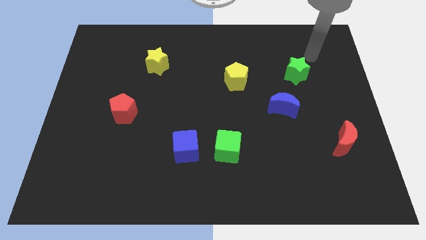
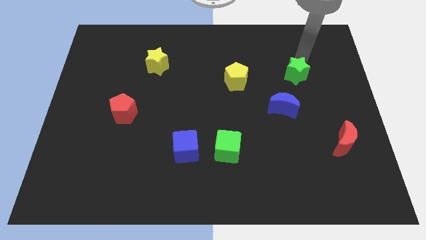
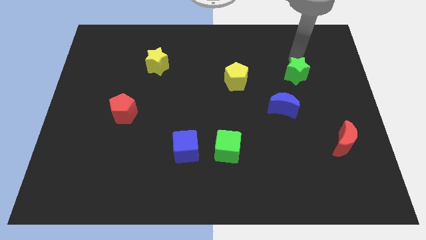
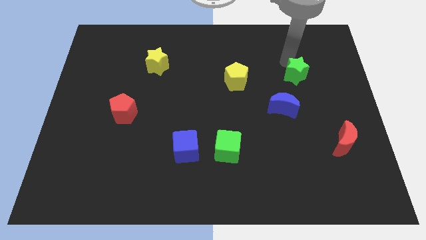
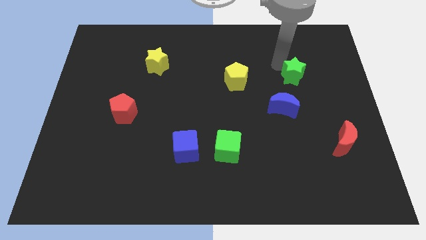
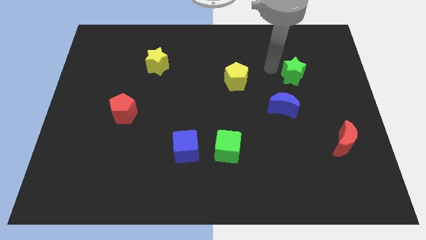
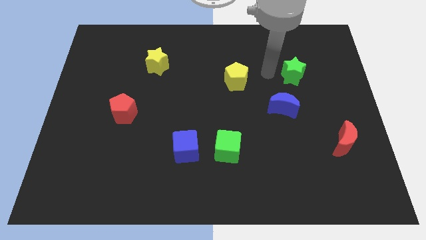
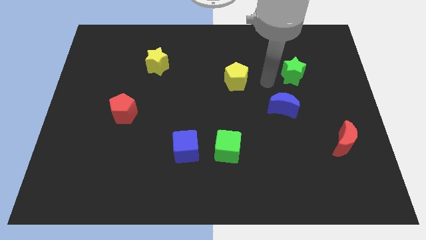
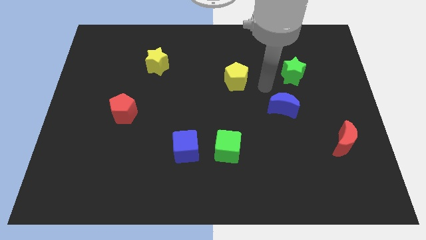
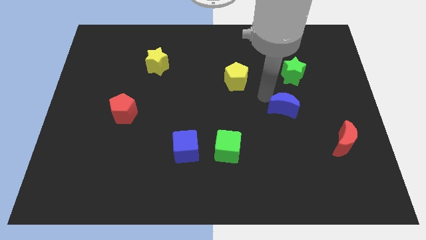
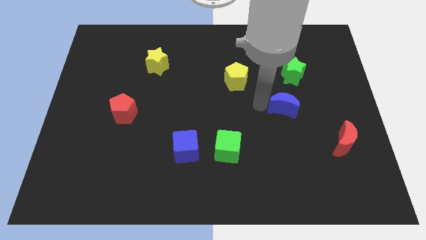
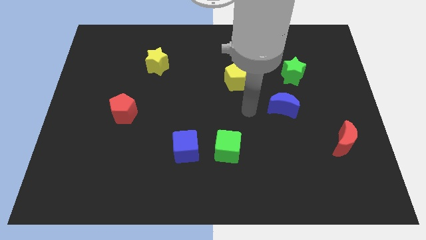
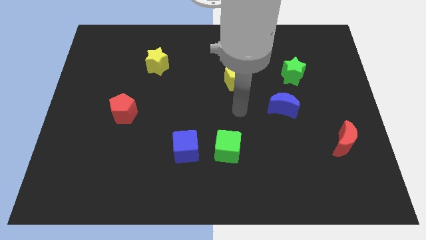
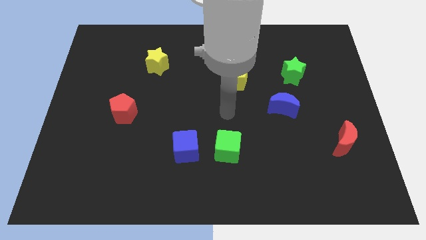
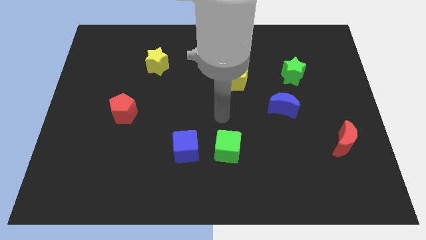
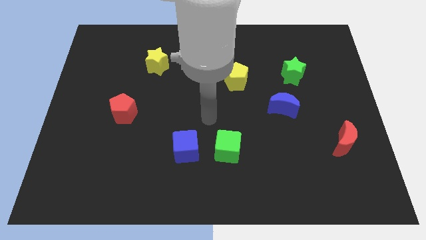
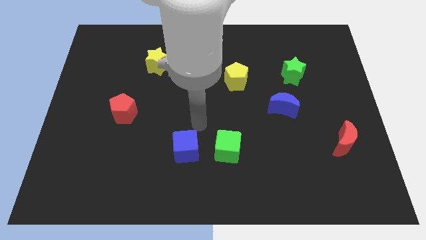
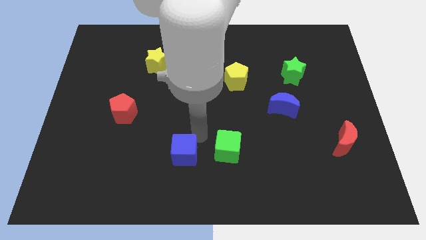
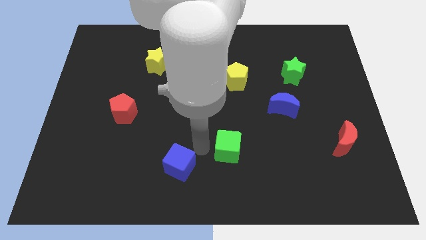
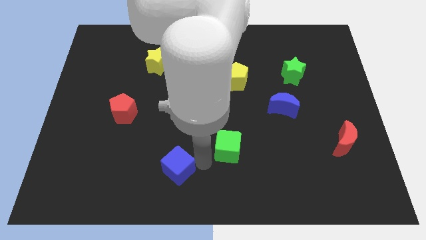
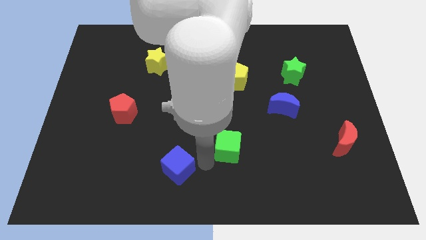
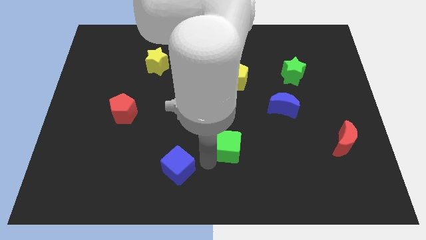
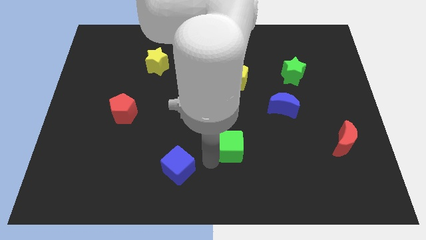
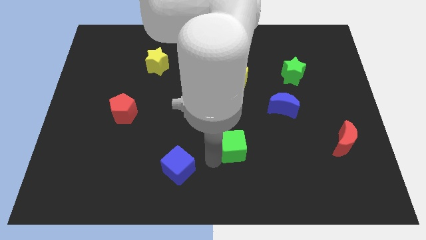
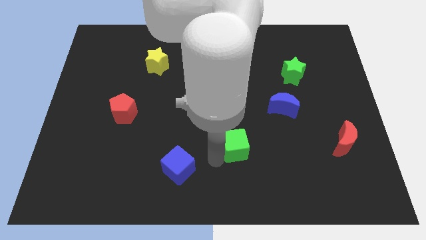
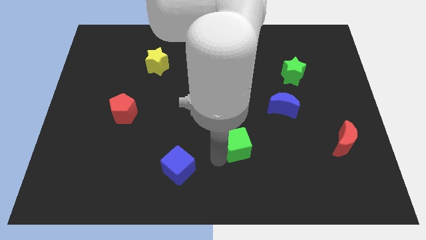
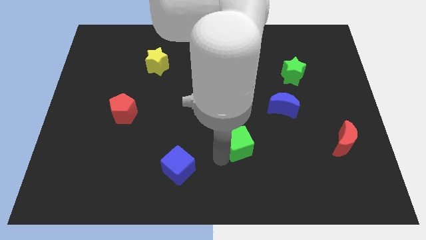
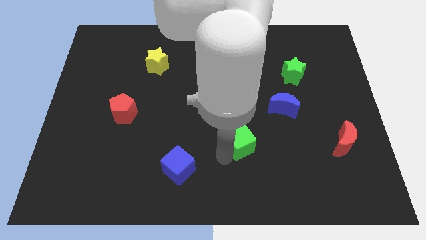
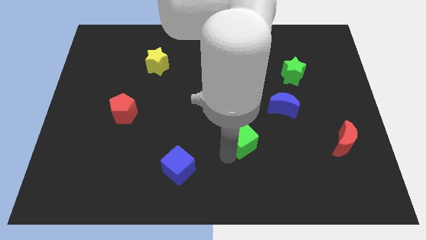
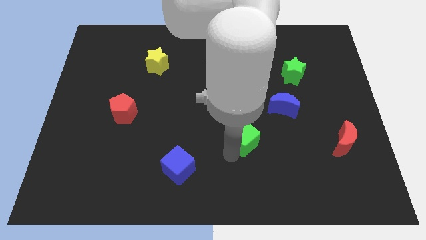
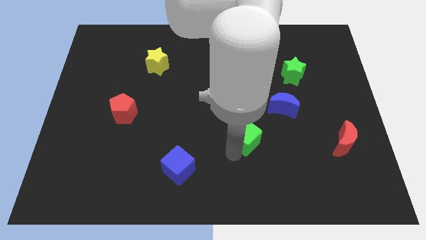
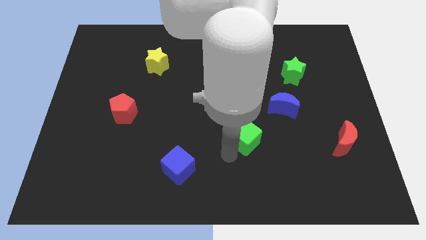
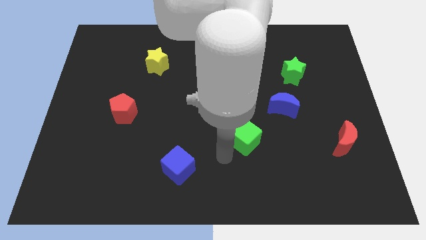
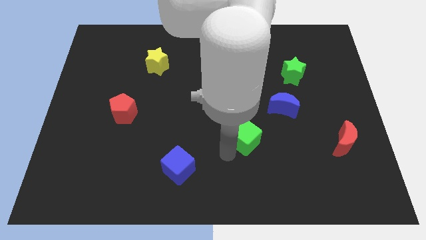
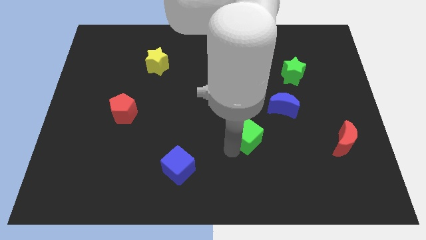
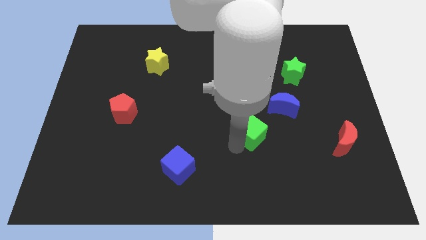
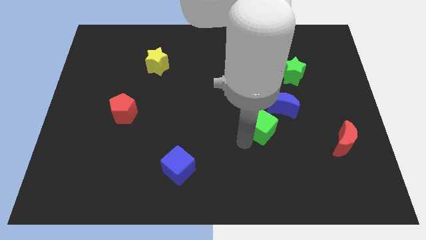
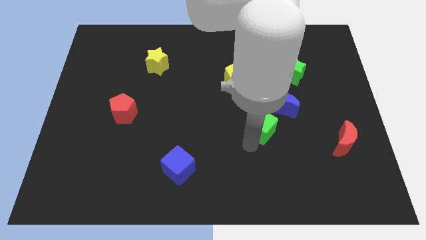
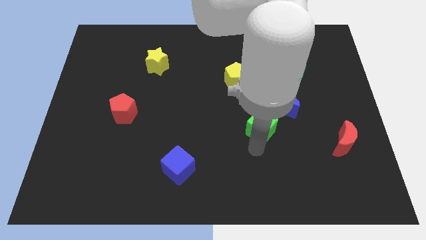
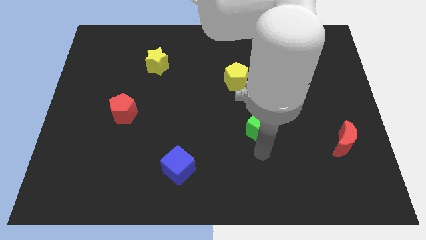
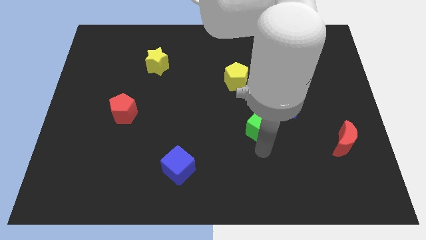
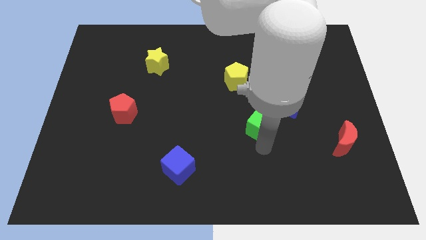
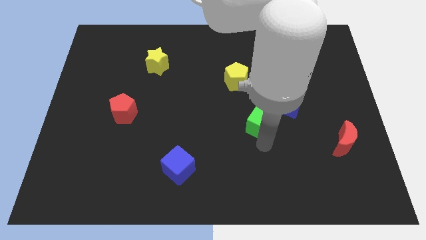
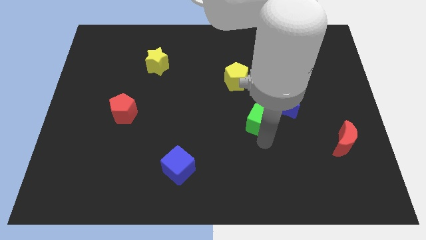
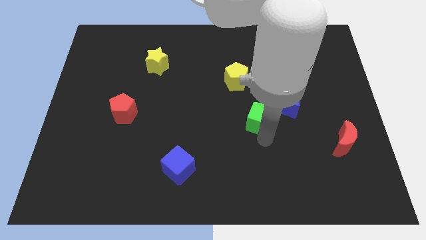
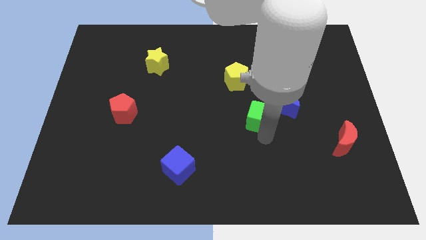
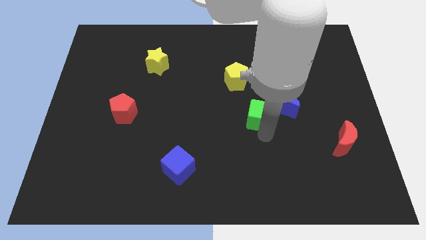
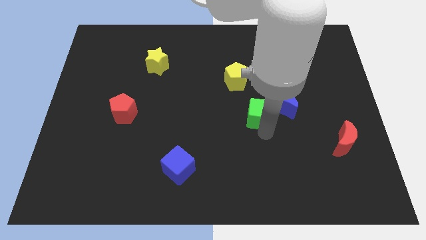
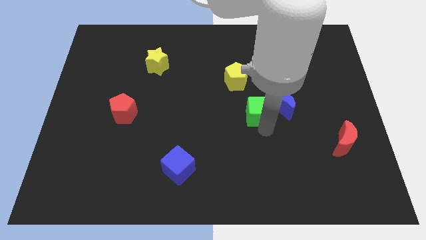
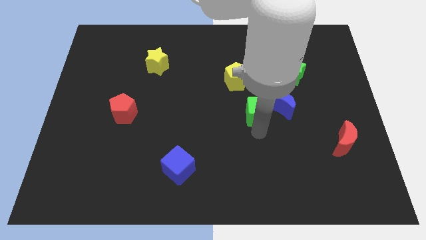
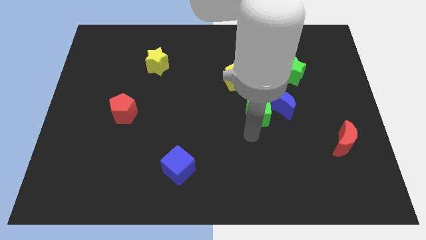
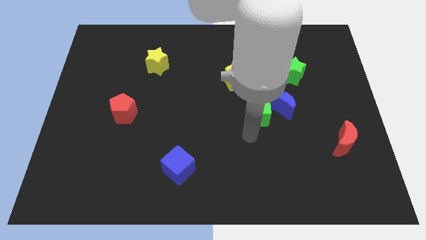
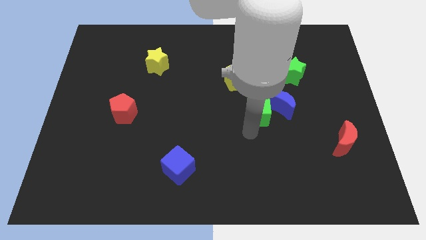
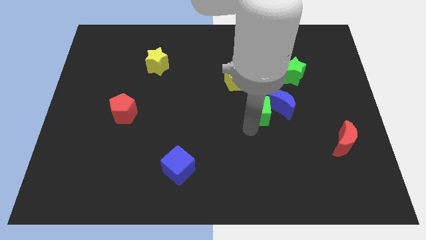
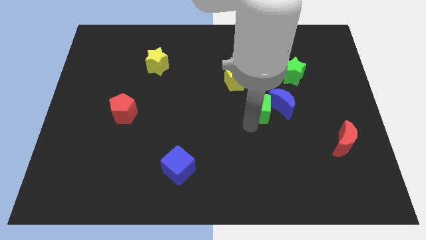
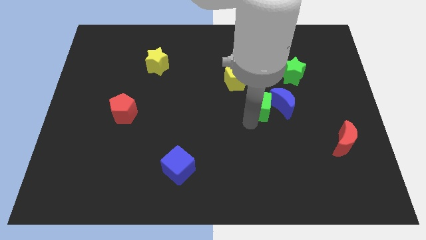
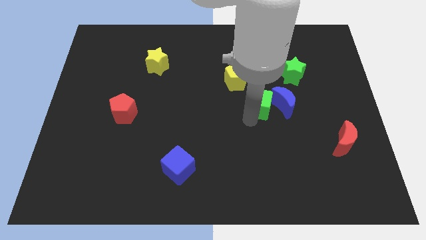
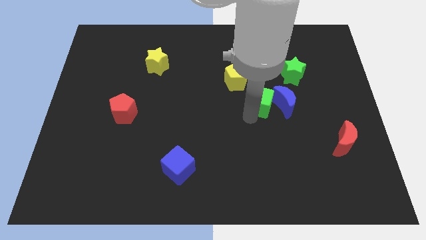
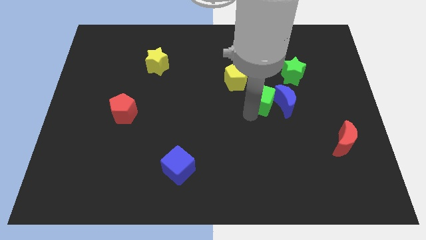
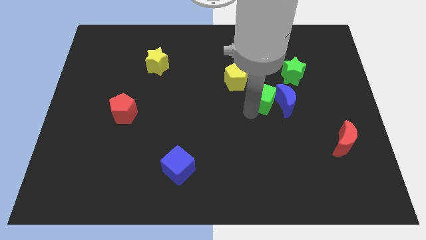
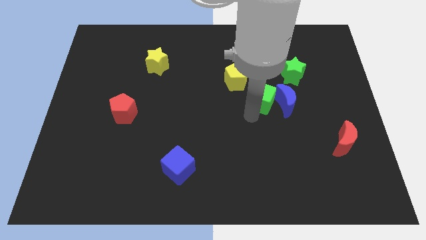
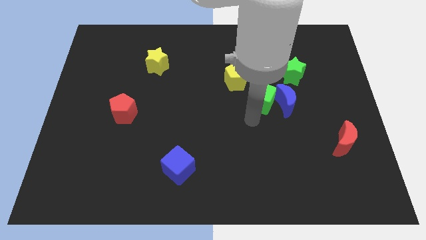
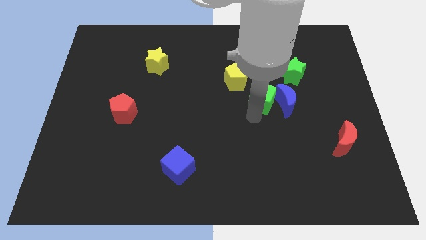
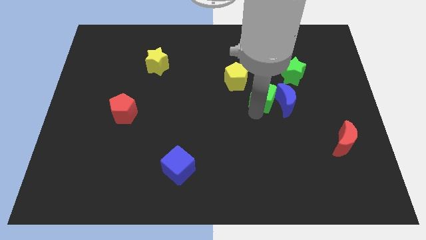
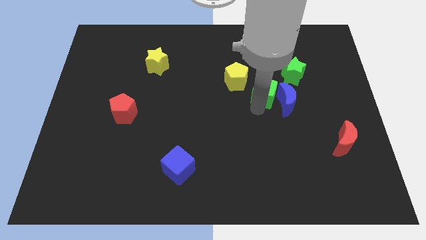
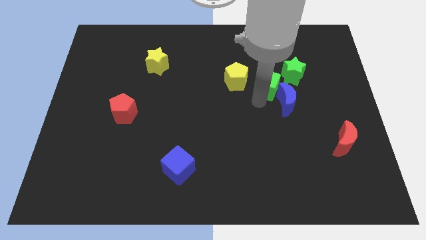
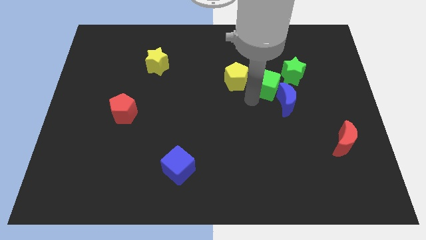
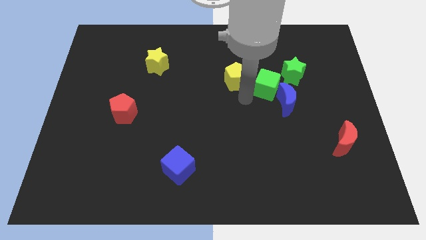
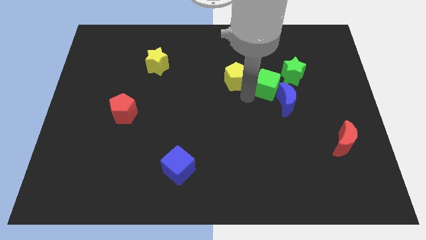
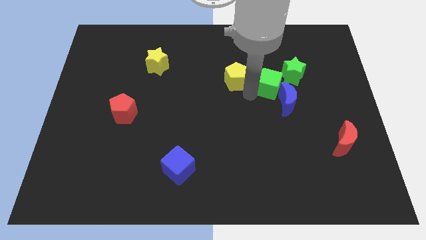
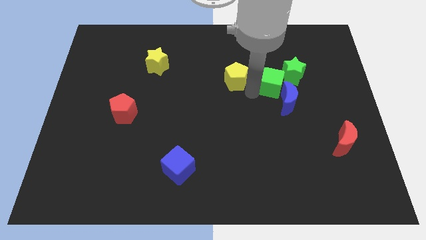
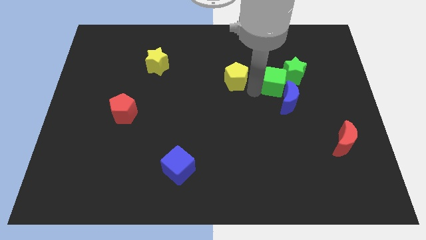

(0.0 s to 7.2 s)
push the green cube next to the green star

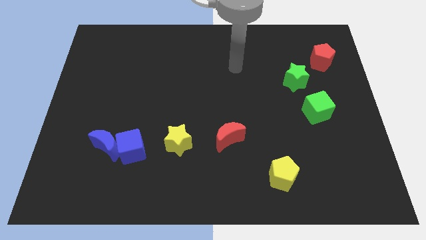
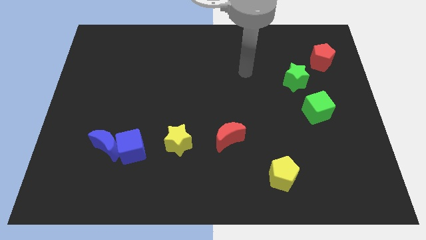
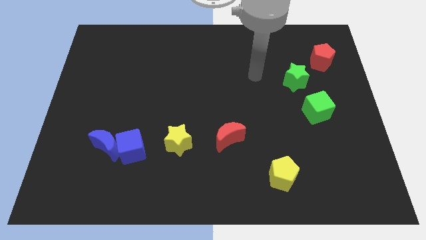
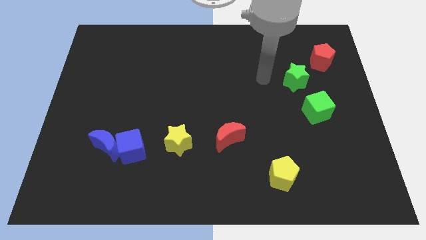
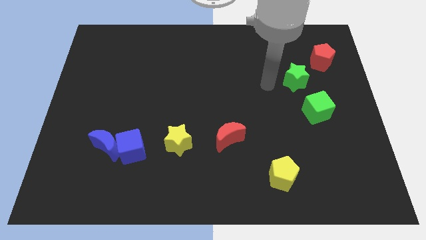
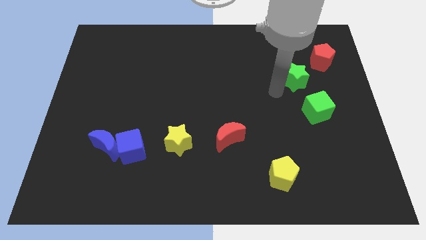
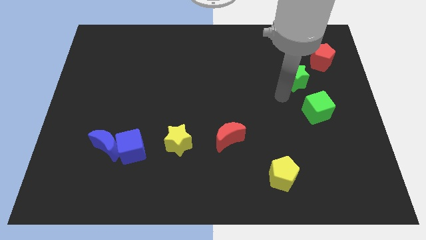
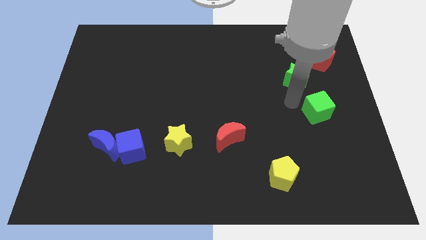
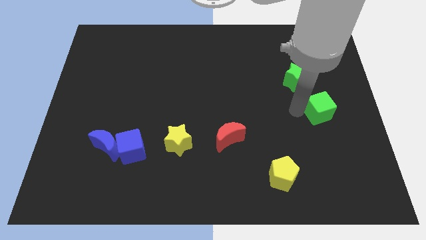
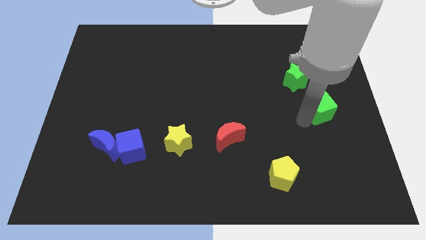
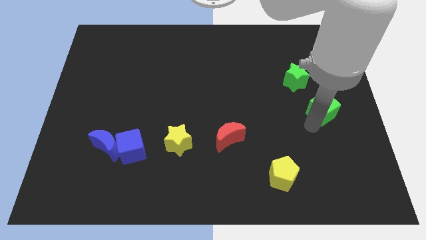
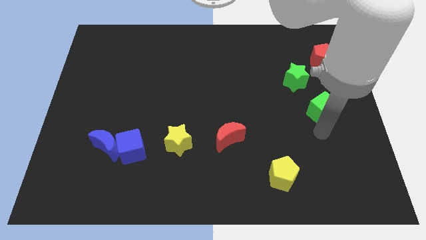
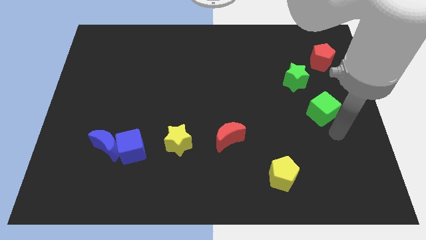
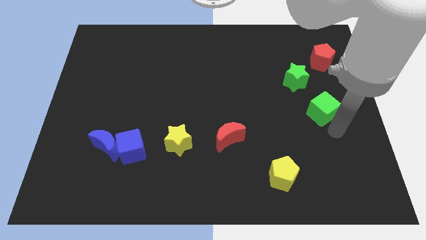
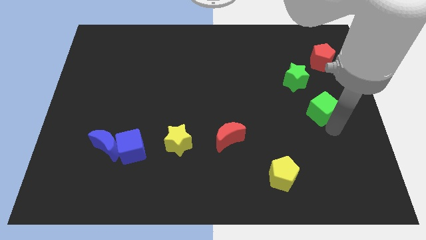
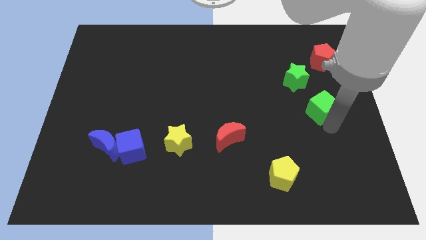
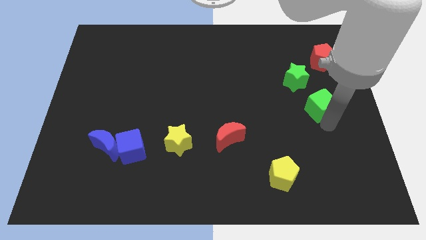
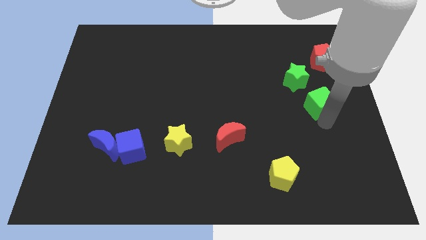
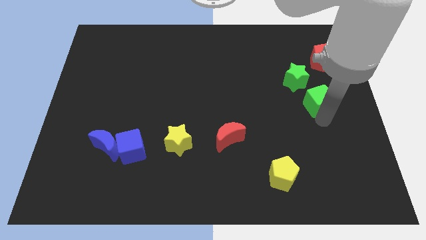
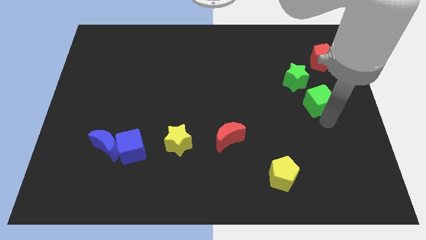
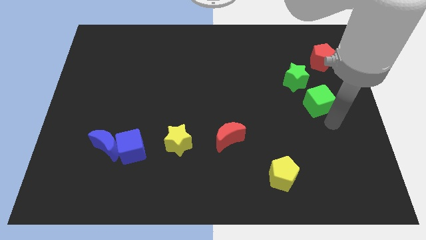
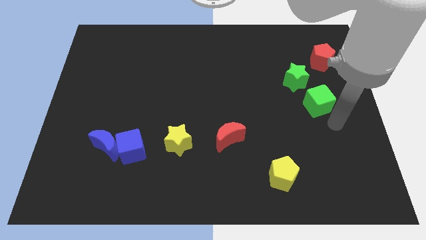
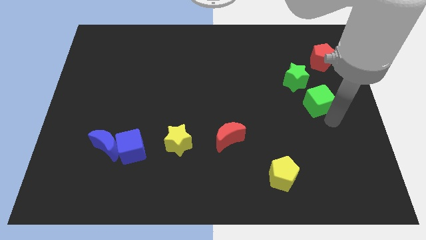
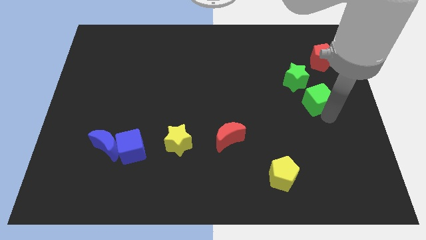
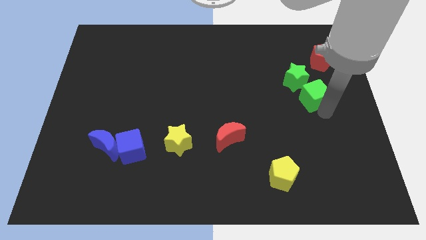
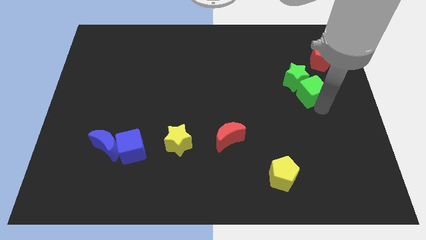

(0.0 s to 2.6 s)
push the green cube close to the green star
